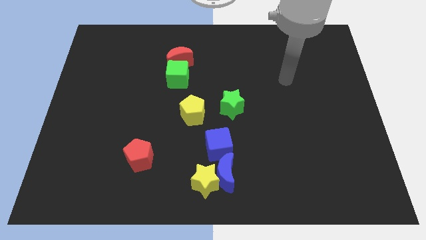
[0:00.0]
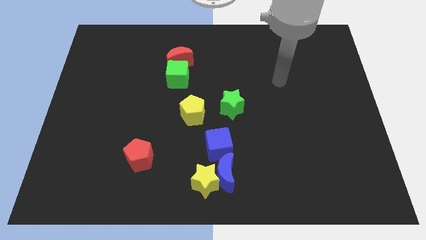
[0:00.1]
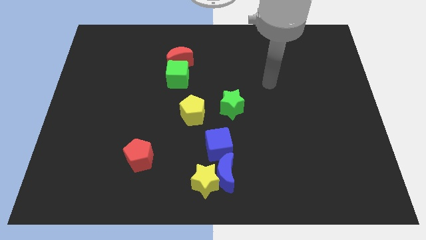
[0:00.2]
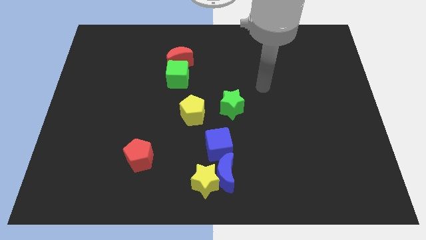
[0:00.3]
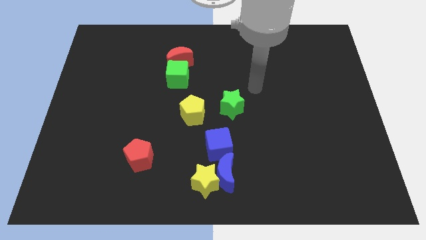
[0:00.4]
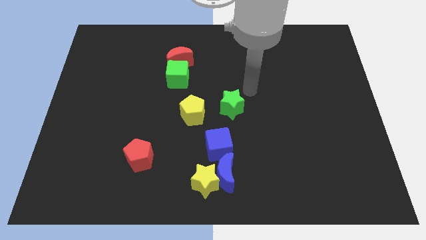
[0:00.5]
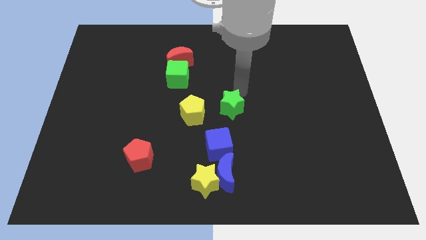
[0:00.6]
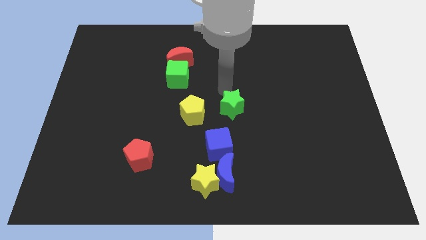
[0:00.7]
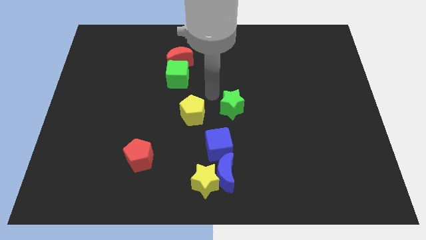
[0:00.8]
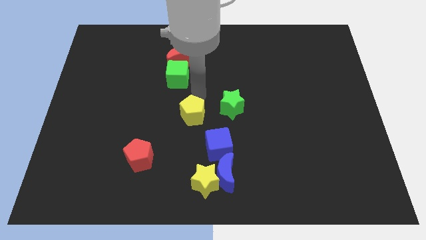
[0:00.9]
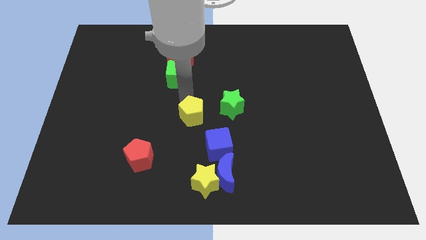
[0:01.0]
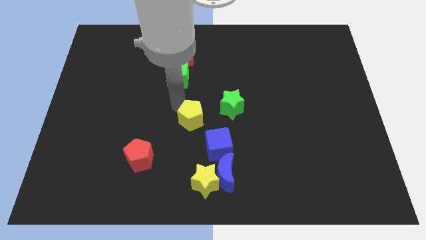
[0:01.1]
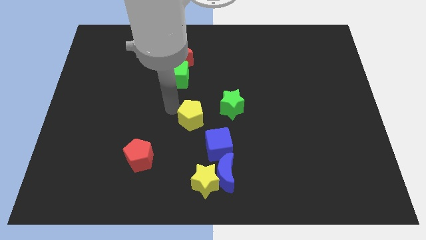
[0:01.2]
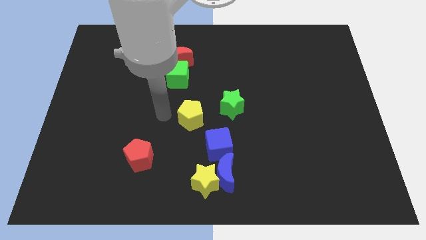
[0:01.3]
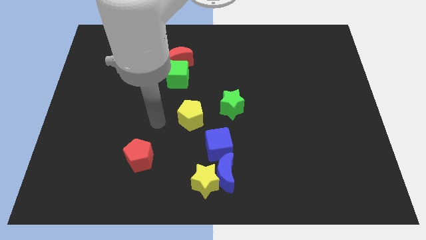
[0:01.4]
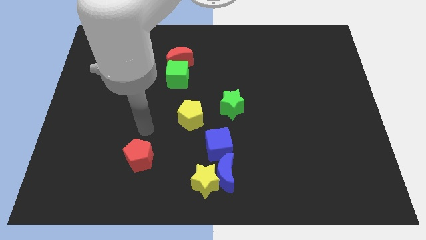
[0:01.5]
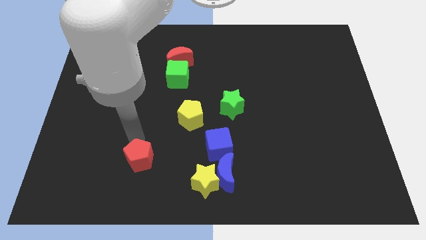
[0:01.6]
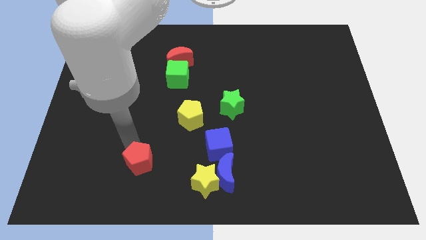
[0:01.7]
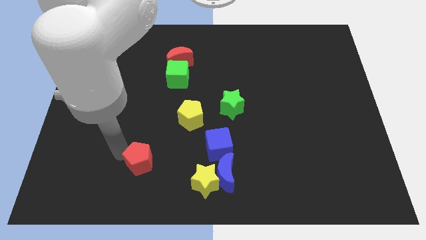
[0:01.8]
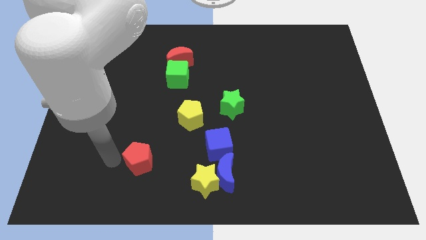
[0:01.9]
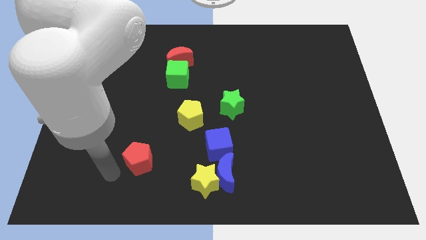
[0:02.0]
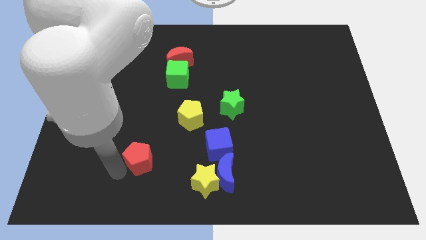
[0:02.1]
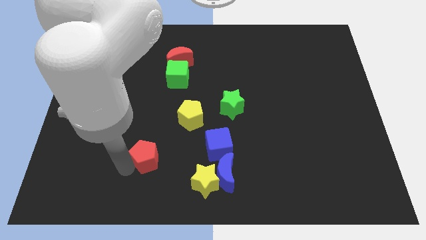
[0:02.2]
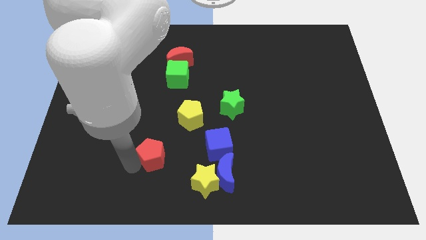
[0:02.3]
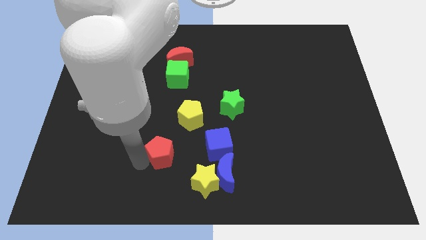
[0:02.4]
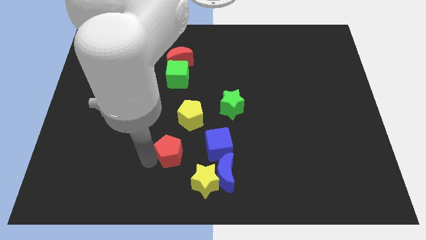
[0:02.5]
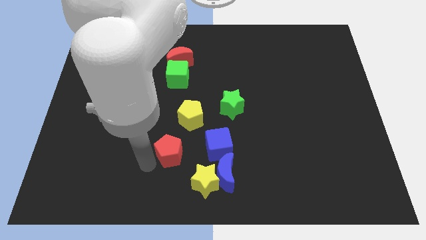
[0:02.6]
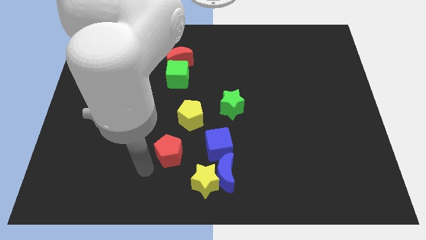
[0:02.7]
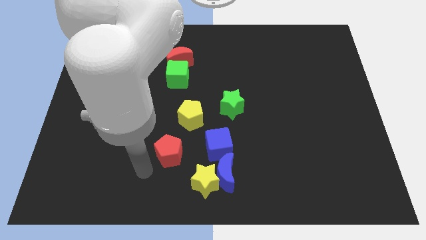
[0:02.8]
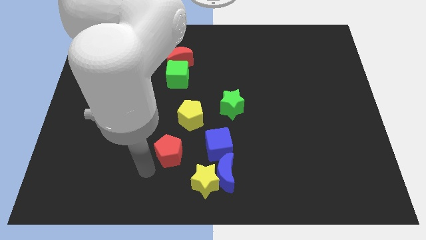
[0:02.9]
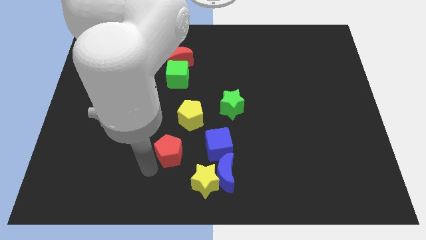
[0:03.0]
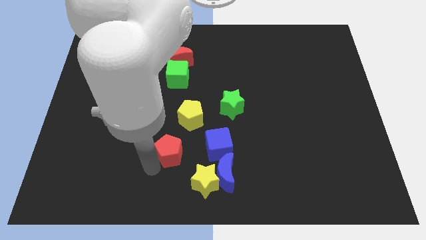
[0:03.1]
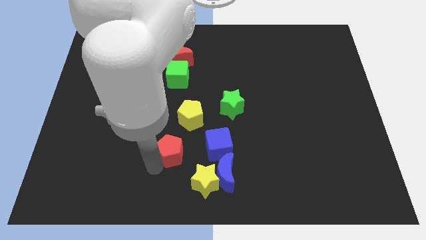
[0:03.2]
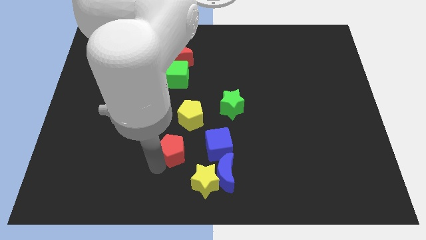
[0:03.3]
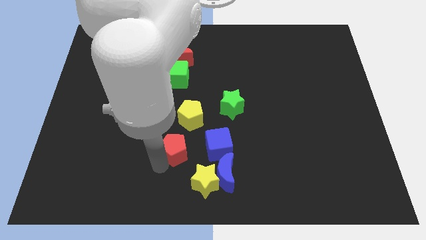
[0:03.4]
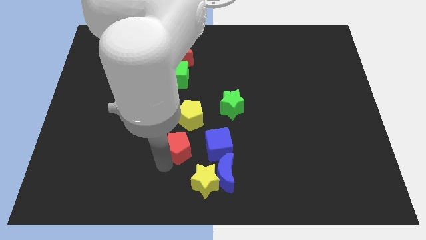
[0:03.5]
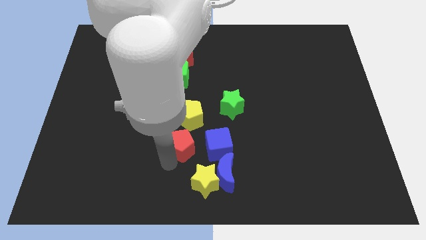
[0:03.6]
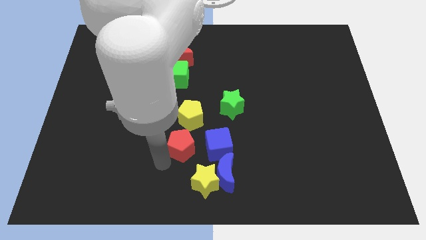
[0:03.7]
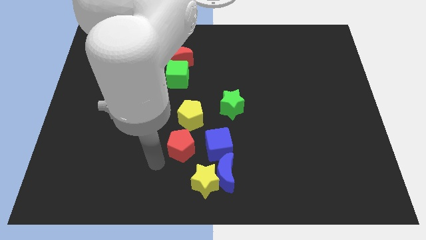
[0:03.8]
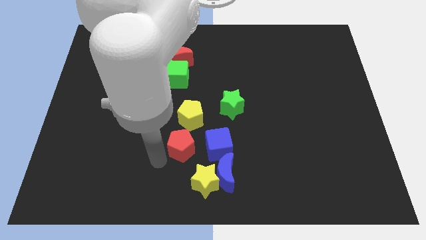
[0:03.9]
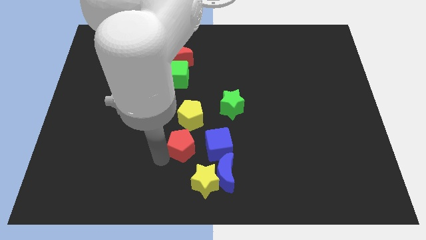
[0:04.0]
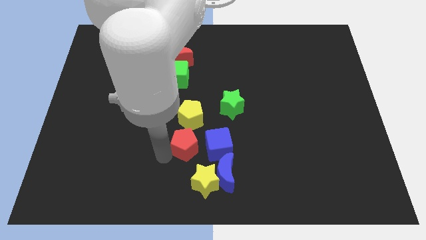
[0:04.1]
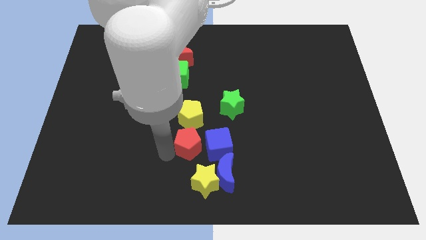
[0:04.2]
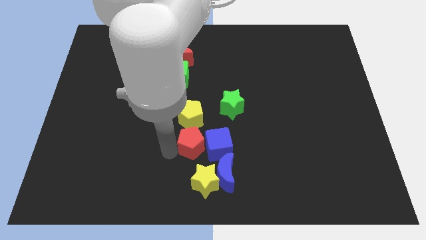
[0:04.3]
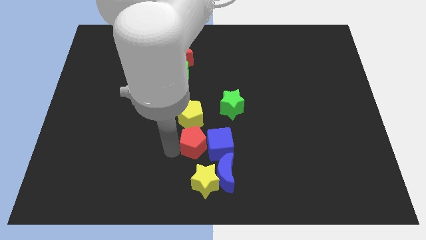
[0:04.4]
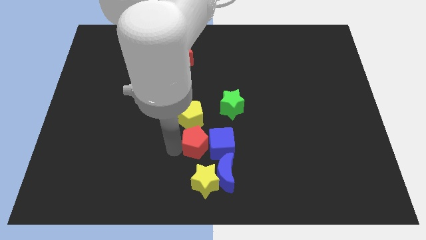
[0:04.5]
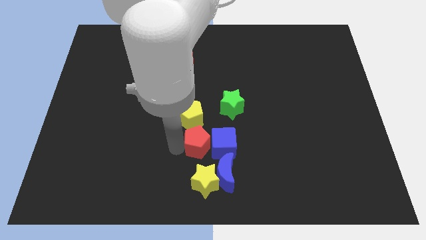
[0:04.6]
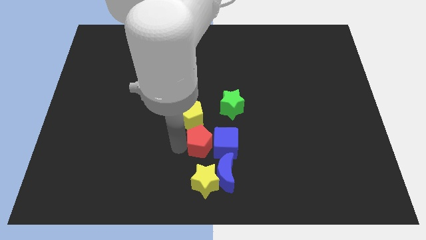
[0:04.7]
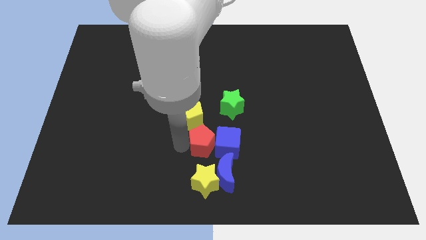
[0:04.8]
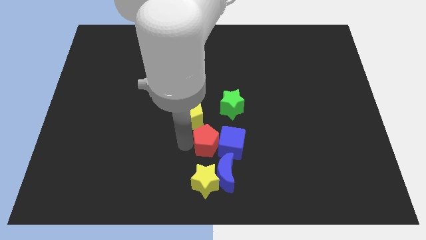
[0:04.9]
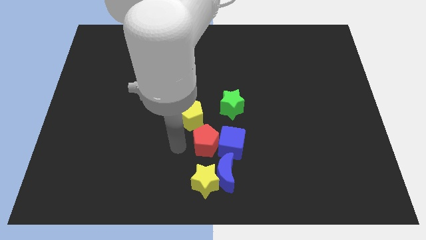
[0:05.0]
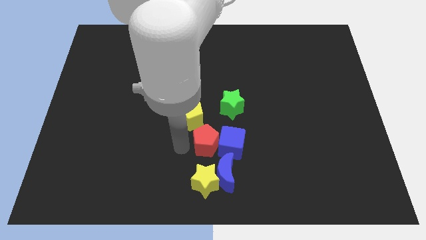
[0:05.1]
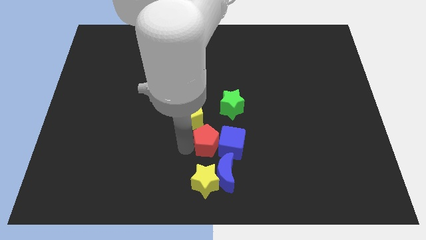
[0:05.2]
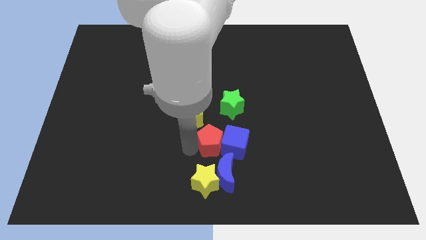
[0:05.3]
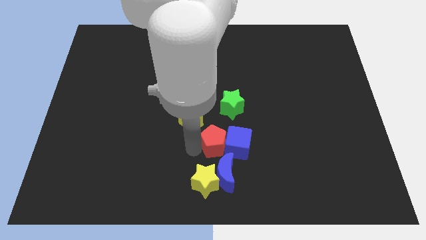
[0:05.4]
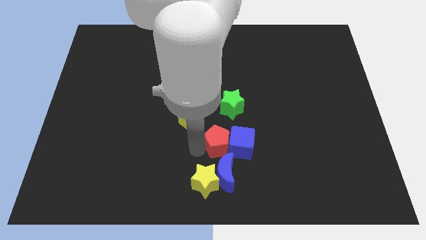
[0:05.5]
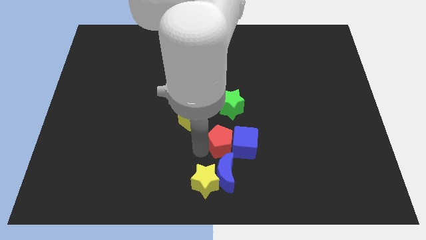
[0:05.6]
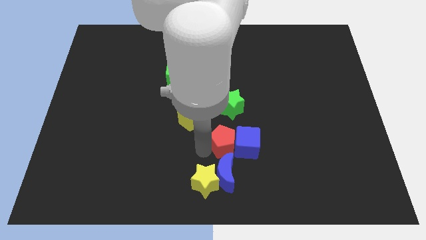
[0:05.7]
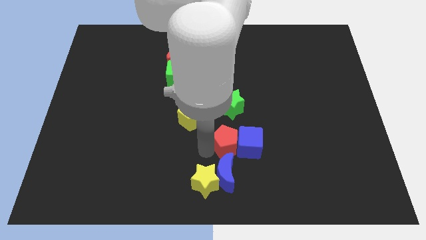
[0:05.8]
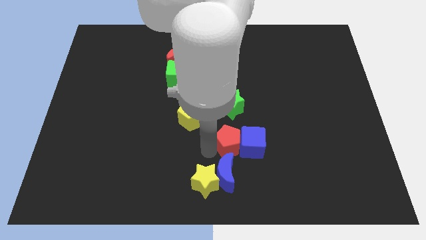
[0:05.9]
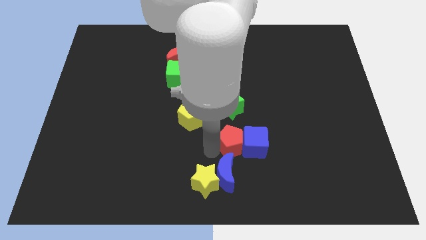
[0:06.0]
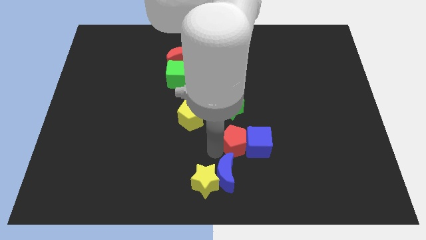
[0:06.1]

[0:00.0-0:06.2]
push the red pentagon to the right

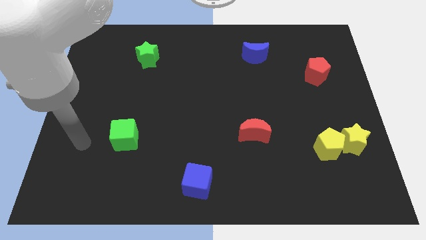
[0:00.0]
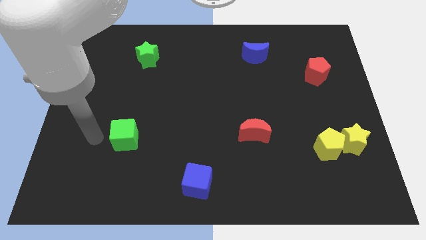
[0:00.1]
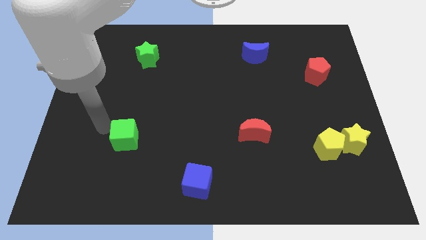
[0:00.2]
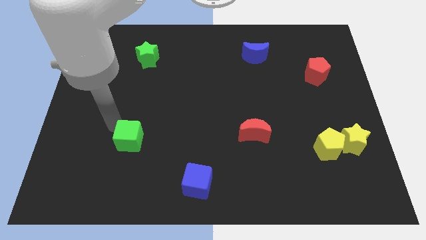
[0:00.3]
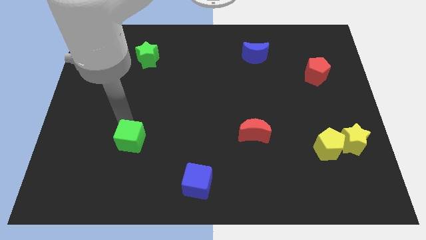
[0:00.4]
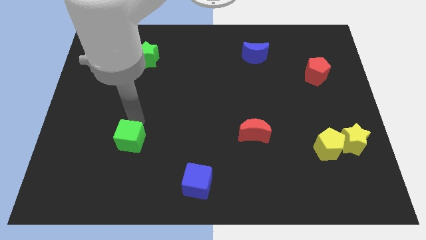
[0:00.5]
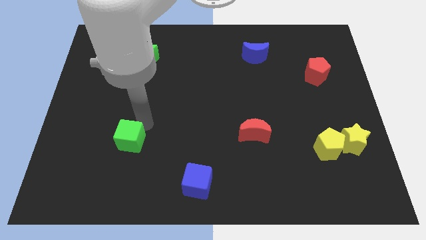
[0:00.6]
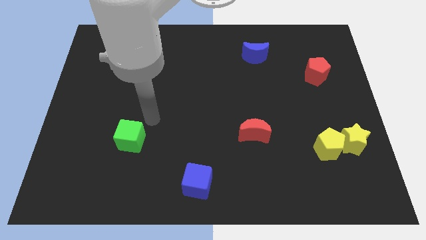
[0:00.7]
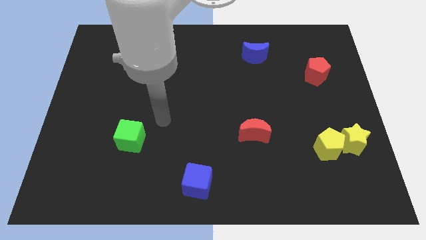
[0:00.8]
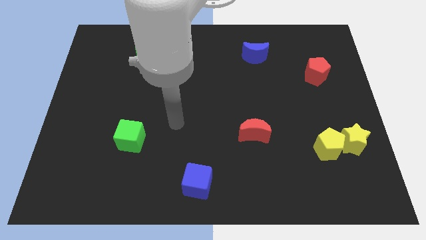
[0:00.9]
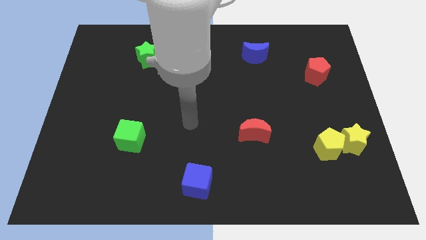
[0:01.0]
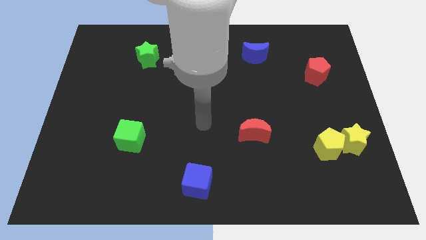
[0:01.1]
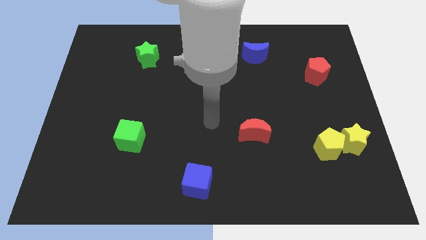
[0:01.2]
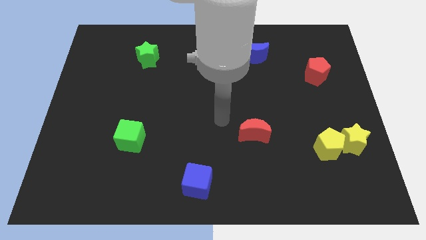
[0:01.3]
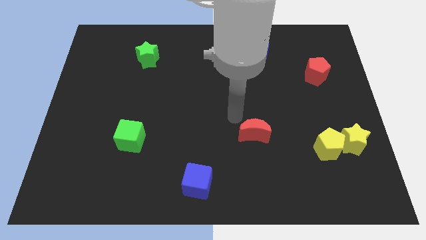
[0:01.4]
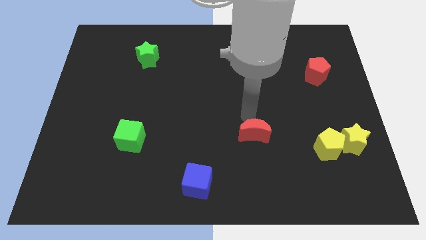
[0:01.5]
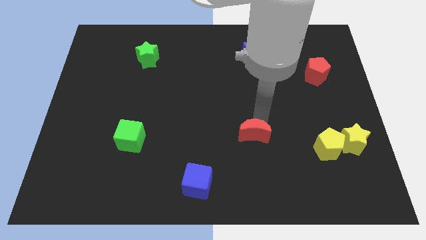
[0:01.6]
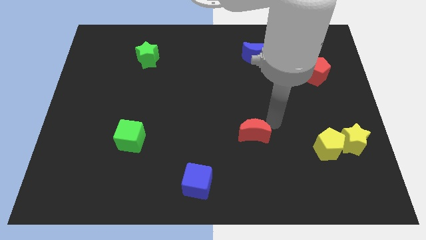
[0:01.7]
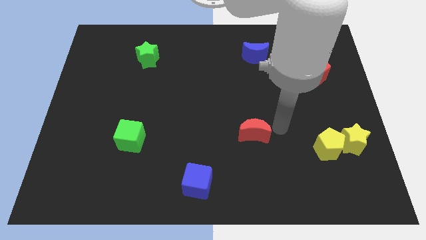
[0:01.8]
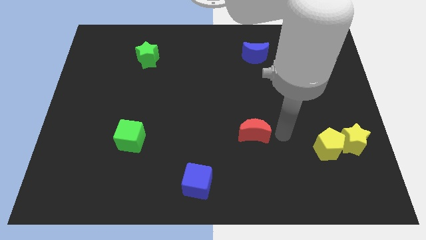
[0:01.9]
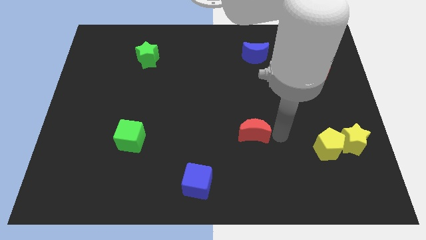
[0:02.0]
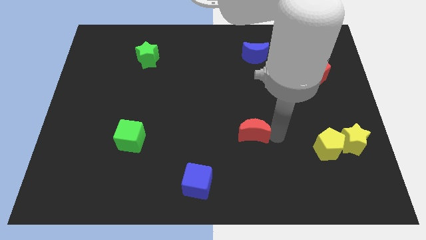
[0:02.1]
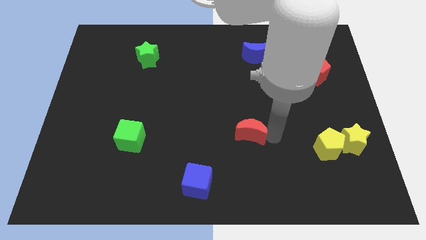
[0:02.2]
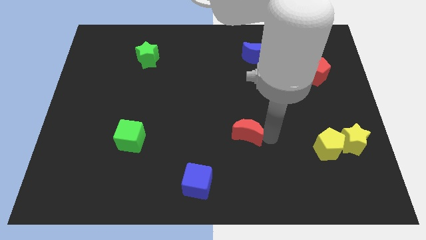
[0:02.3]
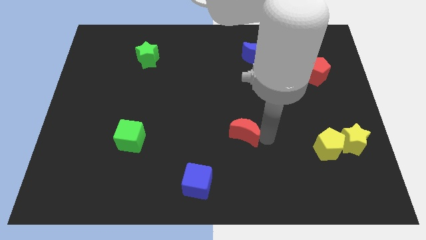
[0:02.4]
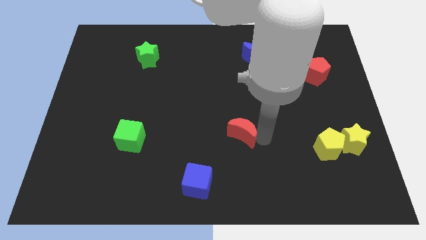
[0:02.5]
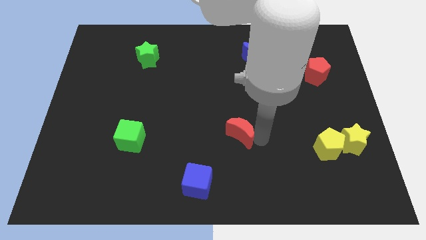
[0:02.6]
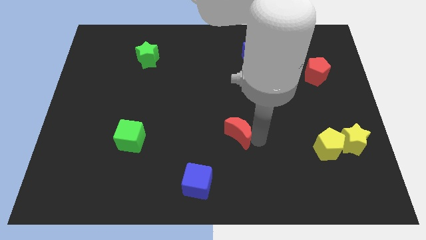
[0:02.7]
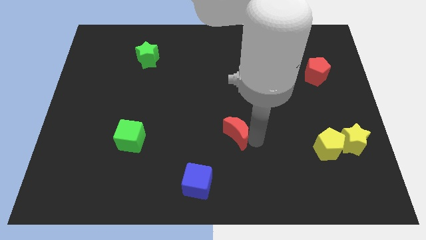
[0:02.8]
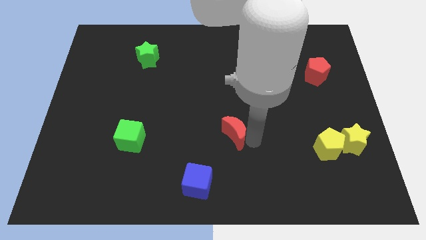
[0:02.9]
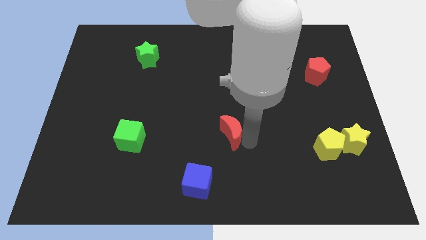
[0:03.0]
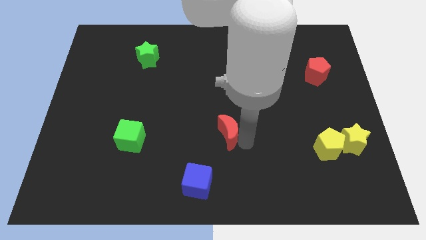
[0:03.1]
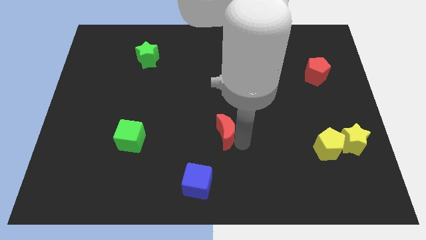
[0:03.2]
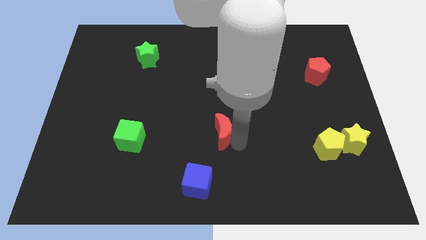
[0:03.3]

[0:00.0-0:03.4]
push the red moon to the left somewhat
